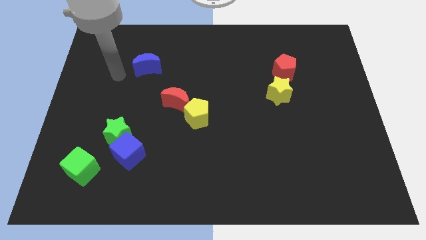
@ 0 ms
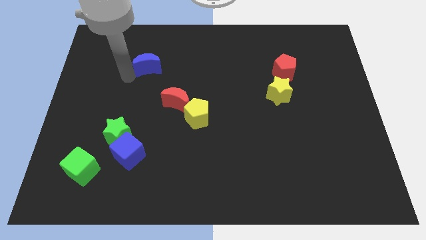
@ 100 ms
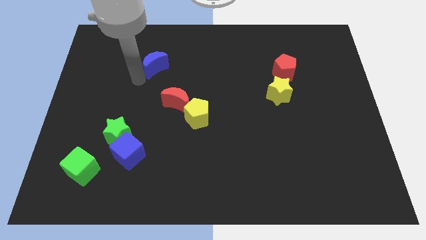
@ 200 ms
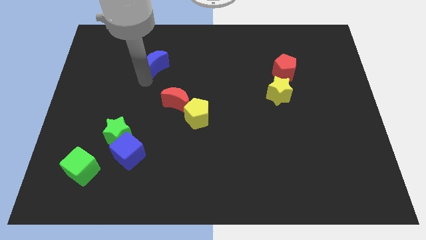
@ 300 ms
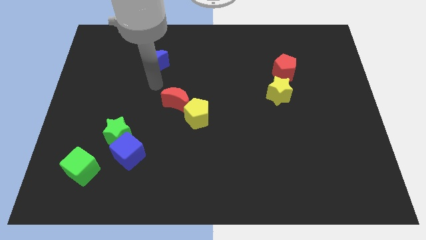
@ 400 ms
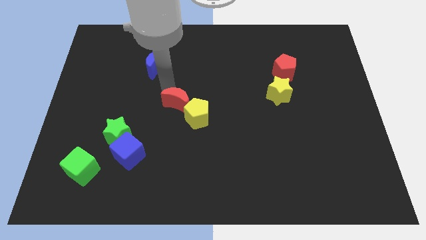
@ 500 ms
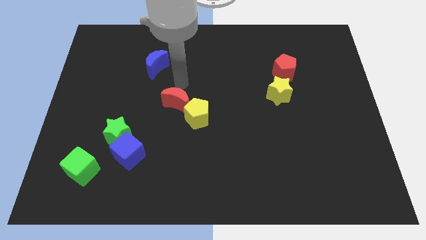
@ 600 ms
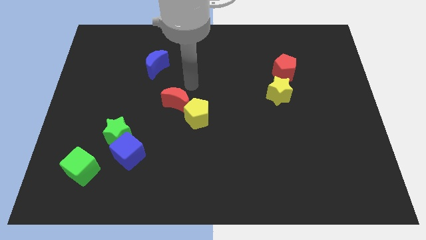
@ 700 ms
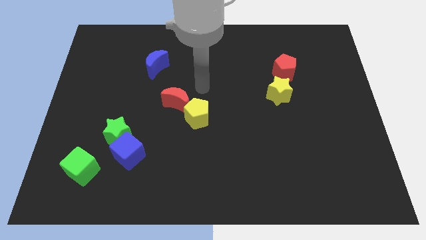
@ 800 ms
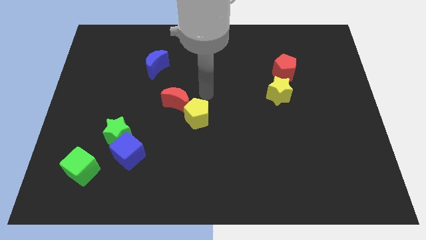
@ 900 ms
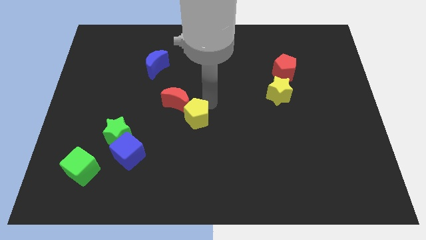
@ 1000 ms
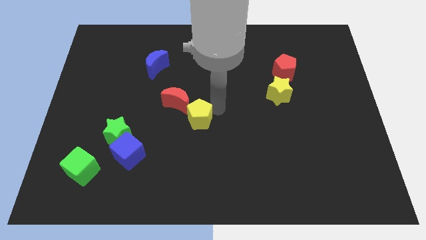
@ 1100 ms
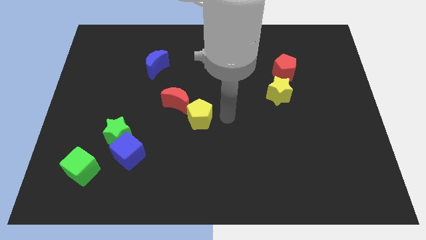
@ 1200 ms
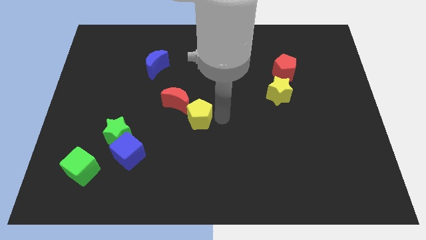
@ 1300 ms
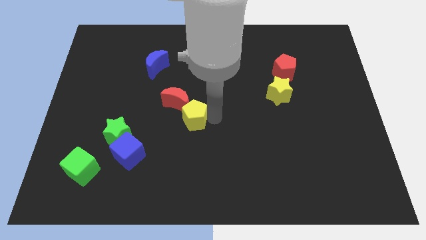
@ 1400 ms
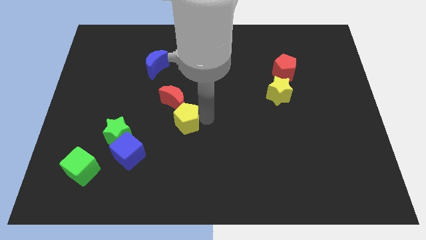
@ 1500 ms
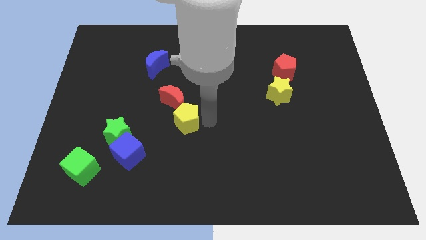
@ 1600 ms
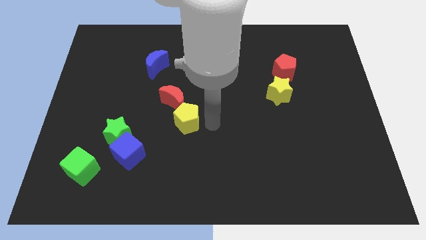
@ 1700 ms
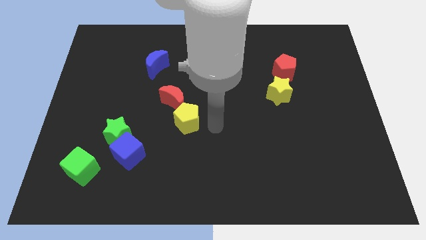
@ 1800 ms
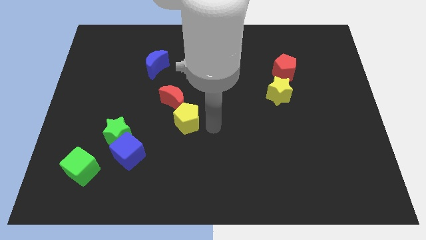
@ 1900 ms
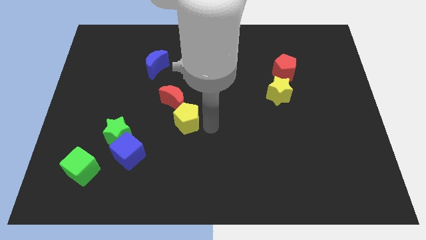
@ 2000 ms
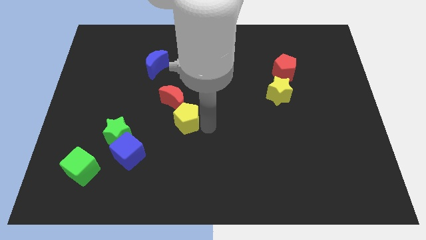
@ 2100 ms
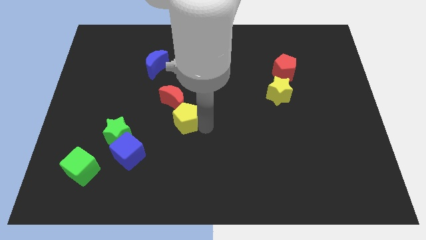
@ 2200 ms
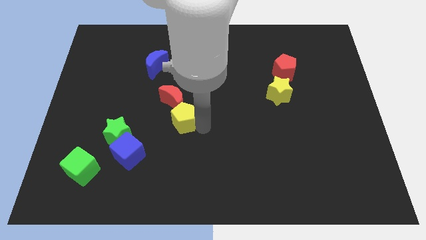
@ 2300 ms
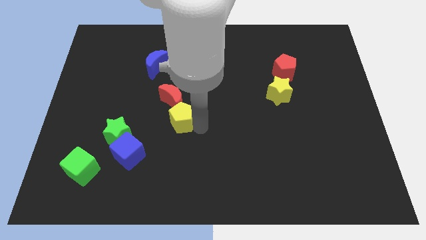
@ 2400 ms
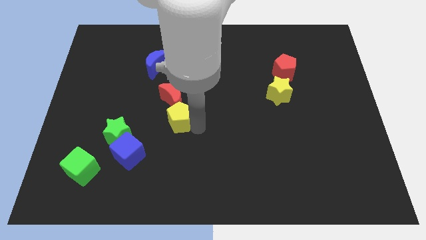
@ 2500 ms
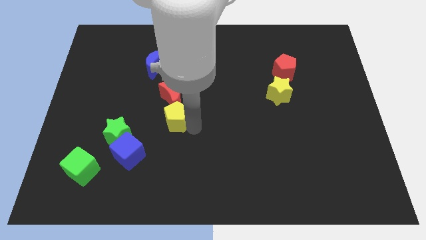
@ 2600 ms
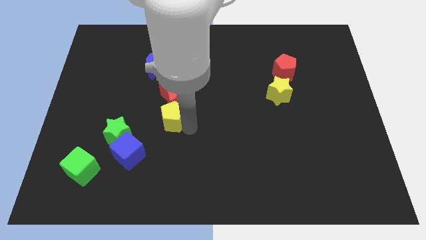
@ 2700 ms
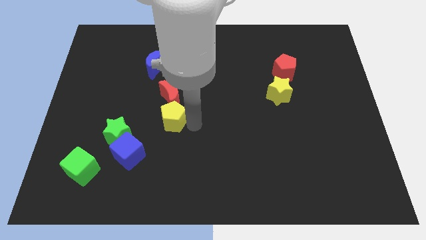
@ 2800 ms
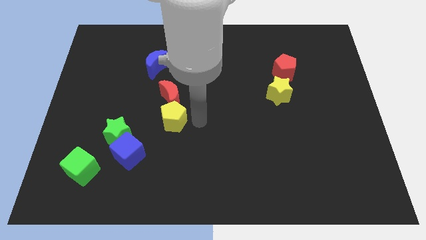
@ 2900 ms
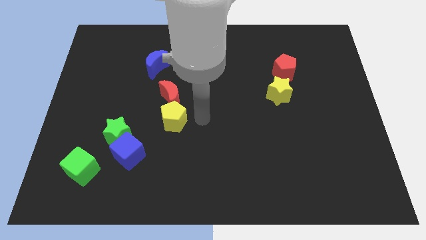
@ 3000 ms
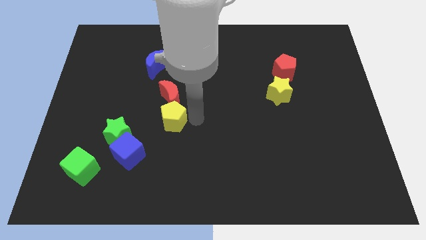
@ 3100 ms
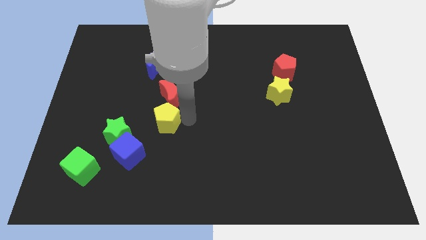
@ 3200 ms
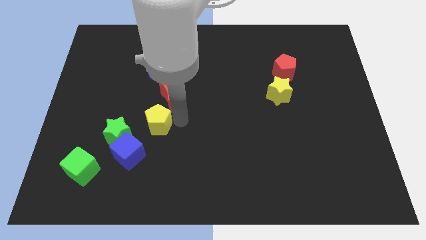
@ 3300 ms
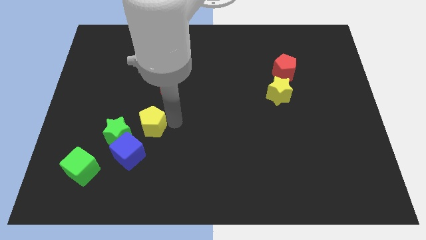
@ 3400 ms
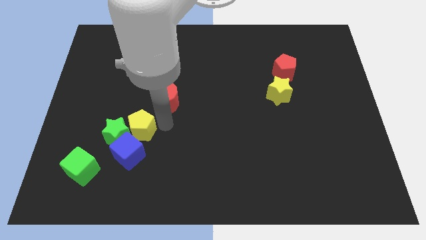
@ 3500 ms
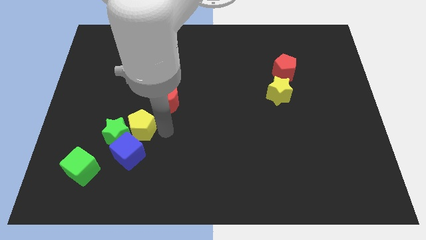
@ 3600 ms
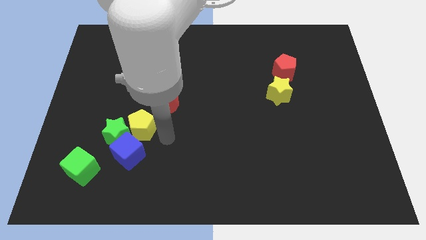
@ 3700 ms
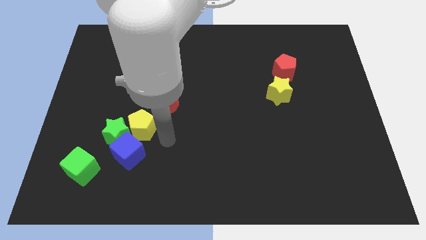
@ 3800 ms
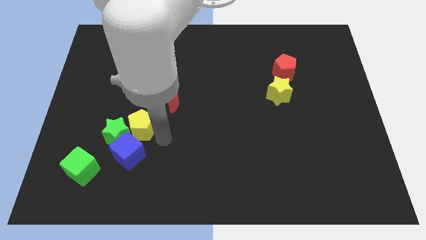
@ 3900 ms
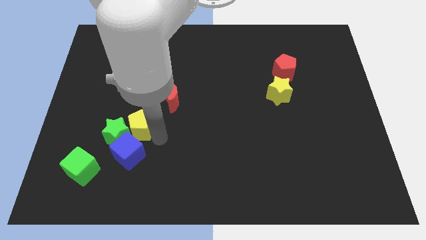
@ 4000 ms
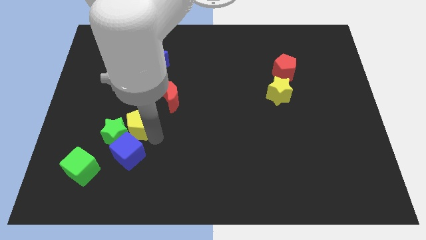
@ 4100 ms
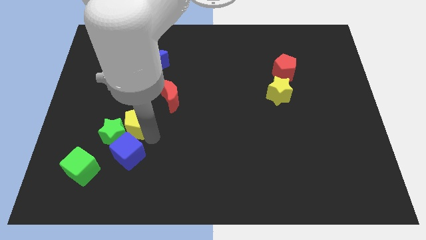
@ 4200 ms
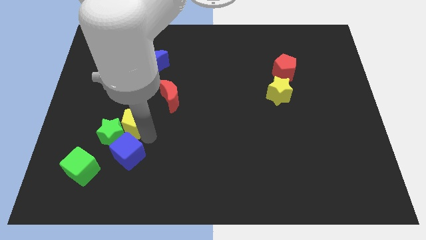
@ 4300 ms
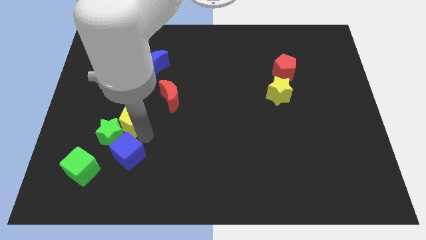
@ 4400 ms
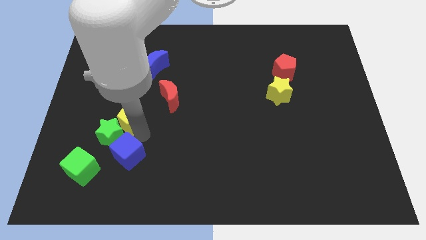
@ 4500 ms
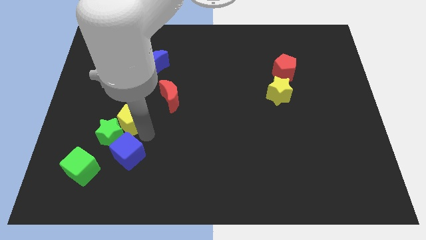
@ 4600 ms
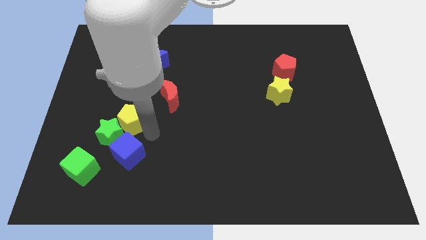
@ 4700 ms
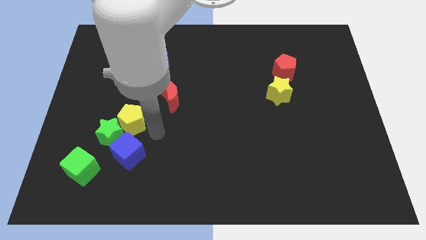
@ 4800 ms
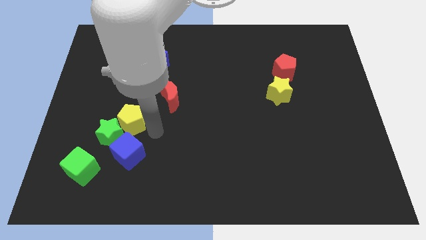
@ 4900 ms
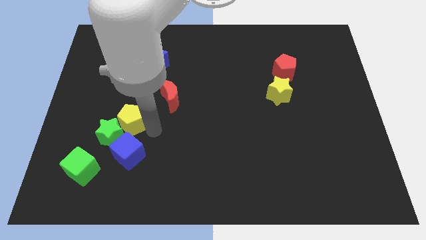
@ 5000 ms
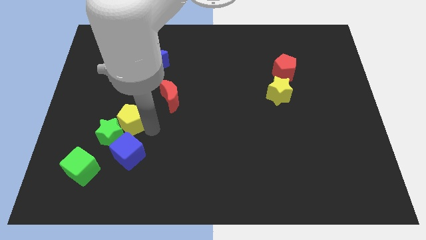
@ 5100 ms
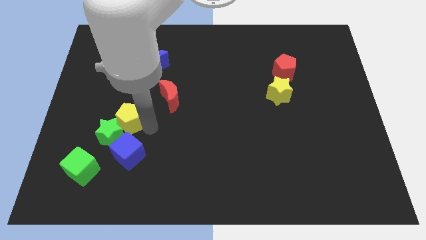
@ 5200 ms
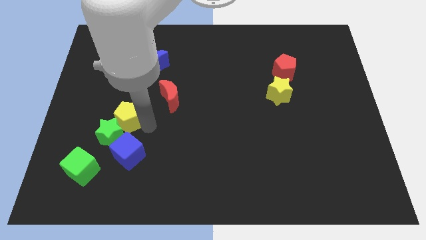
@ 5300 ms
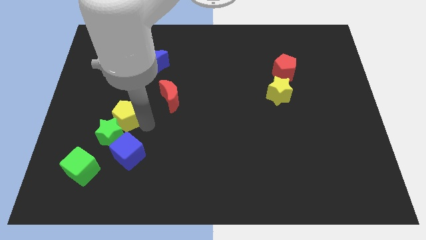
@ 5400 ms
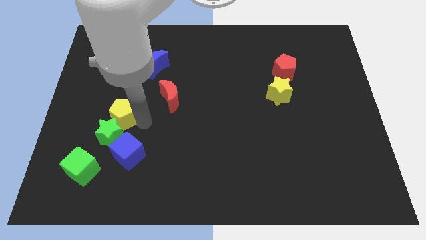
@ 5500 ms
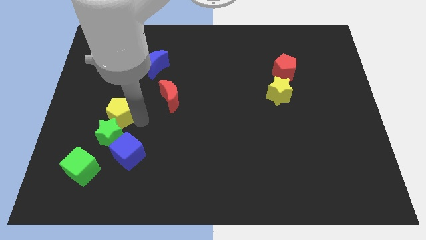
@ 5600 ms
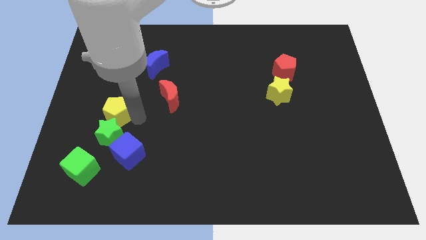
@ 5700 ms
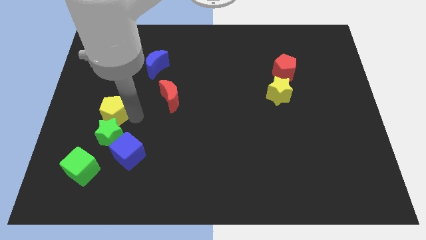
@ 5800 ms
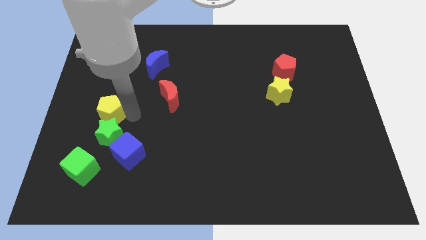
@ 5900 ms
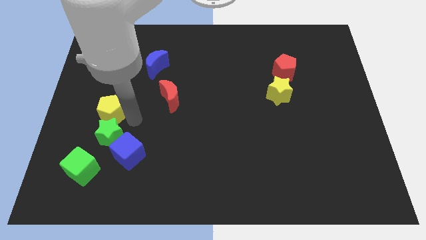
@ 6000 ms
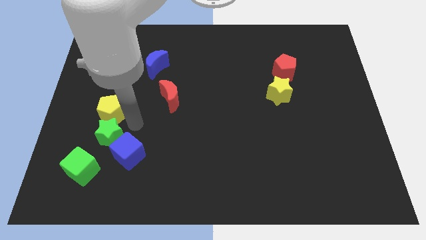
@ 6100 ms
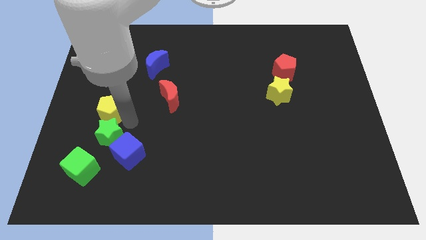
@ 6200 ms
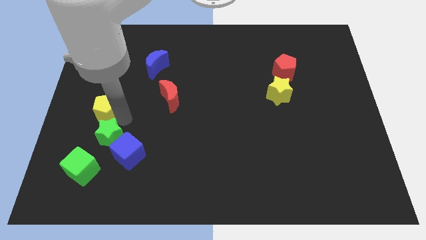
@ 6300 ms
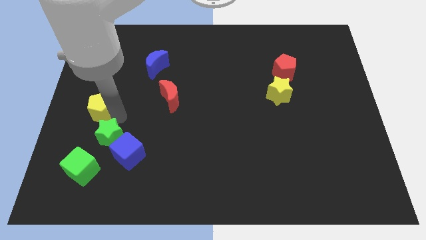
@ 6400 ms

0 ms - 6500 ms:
move the yellow pentagon to the center left

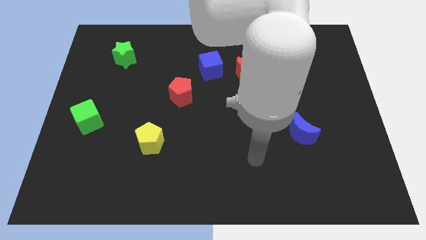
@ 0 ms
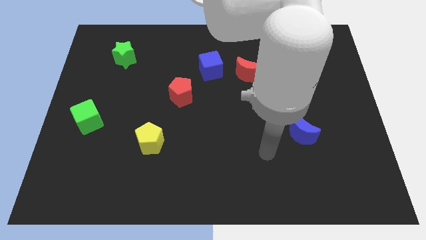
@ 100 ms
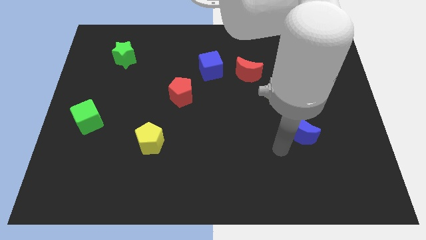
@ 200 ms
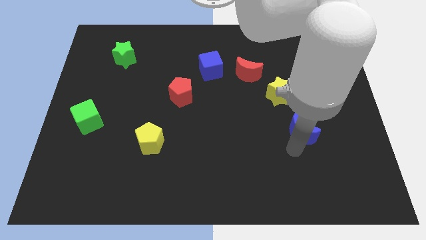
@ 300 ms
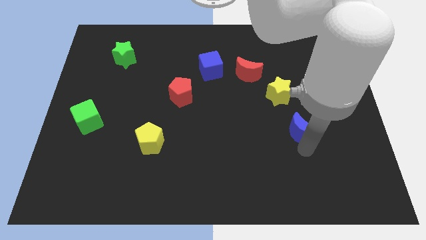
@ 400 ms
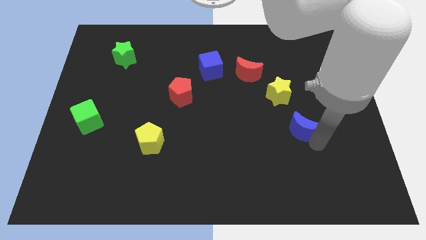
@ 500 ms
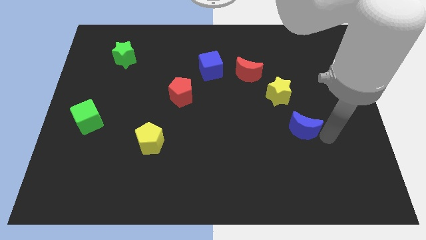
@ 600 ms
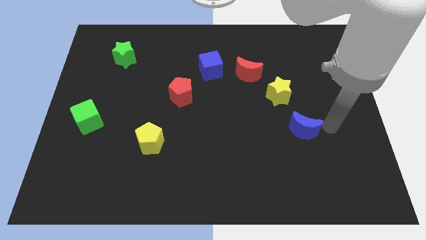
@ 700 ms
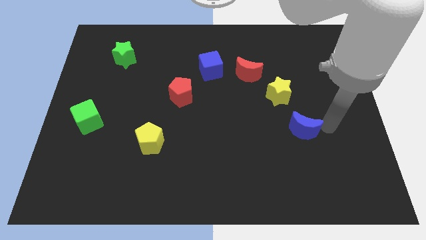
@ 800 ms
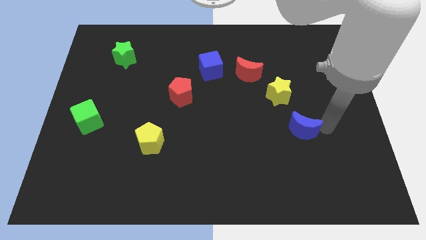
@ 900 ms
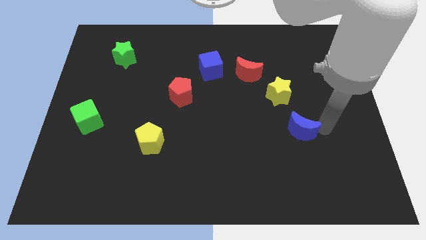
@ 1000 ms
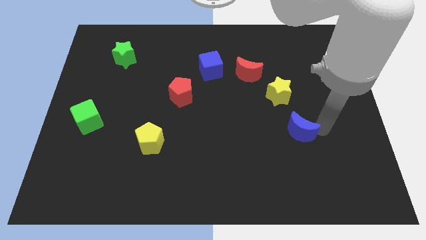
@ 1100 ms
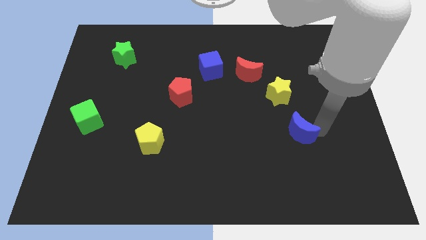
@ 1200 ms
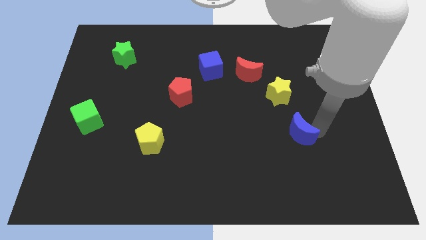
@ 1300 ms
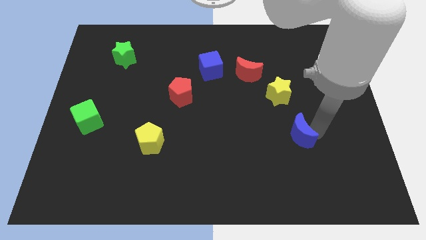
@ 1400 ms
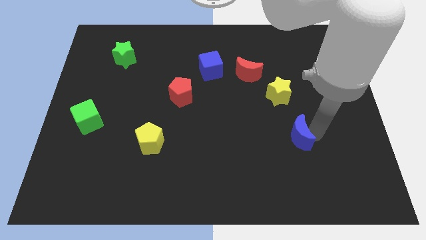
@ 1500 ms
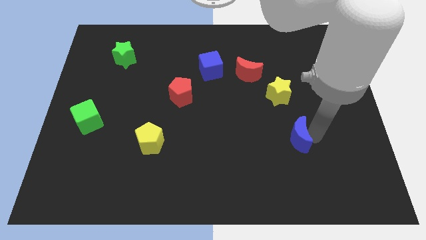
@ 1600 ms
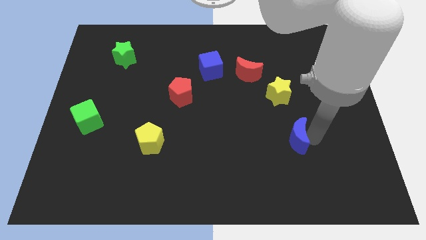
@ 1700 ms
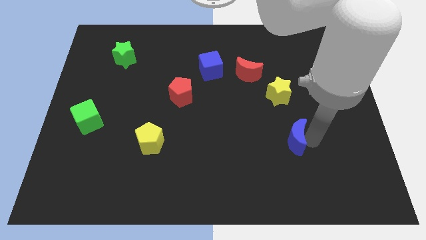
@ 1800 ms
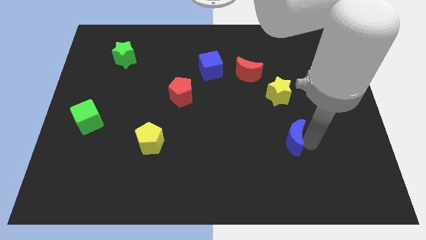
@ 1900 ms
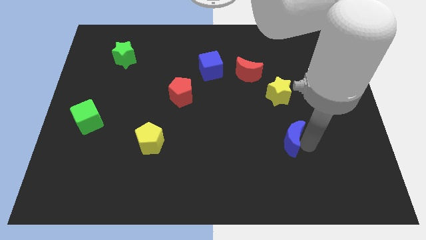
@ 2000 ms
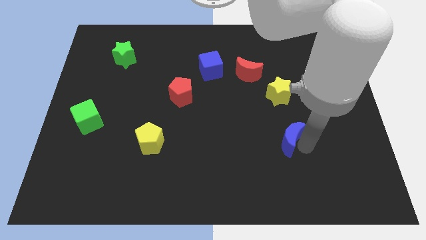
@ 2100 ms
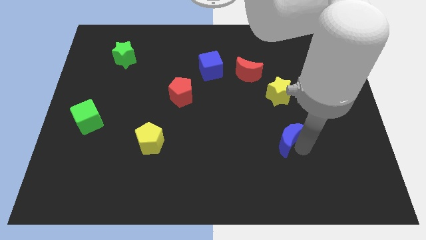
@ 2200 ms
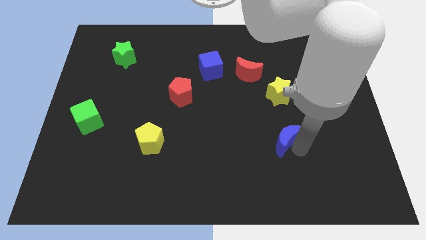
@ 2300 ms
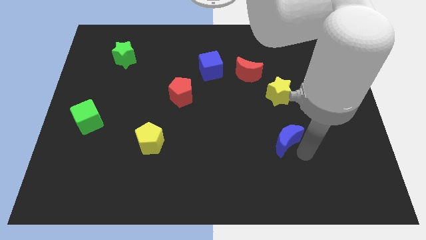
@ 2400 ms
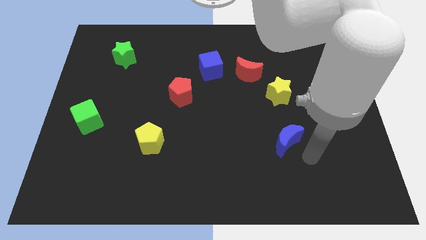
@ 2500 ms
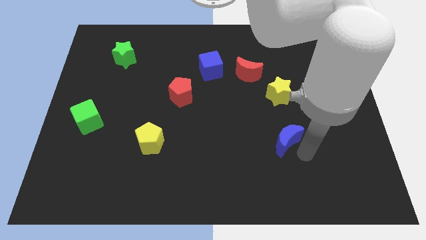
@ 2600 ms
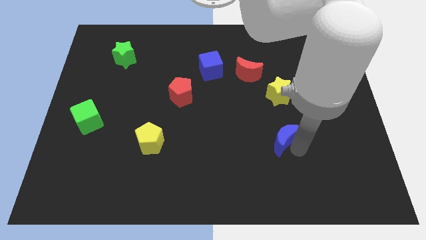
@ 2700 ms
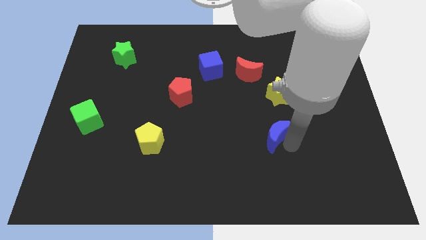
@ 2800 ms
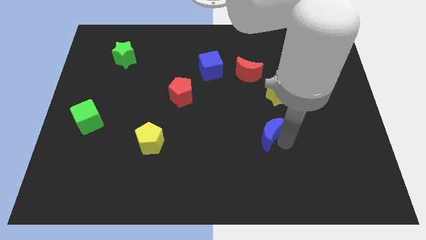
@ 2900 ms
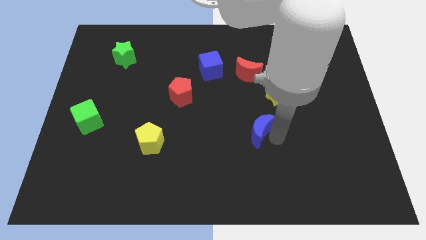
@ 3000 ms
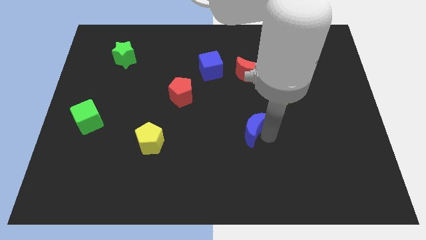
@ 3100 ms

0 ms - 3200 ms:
slide the blue moon to the middle of the board
